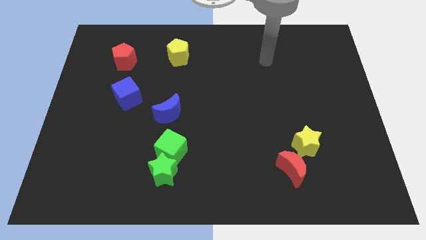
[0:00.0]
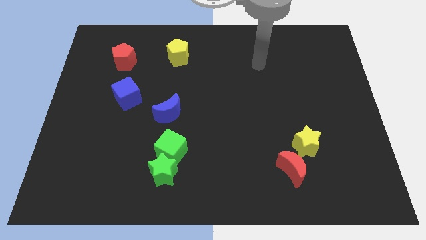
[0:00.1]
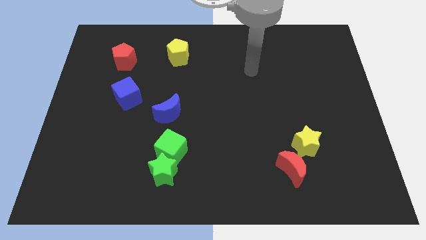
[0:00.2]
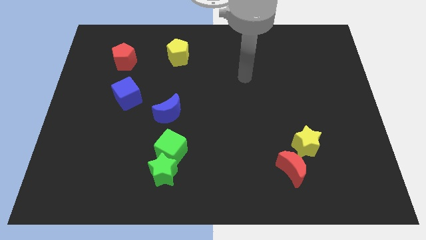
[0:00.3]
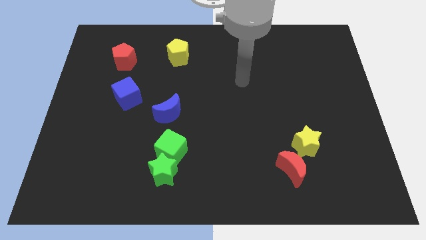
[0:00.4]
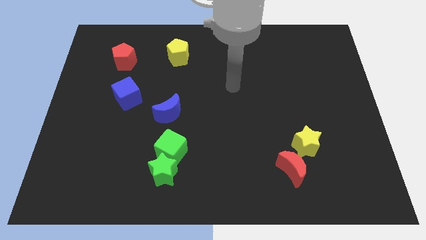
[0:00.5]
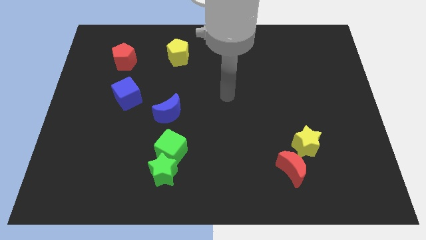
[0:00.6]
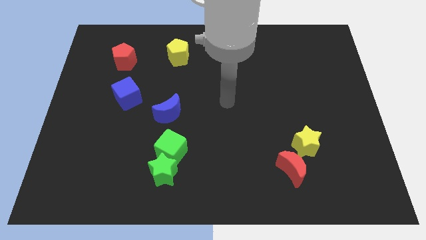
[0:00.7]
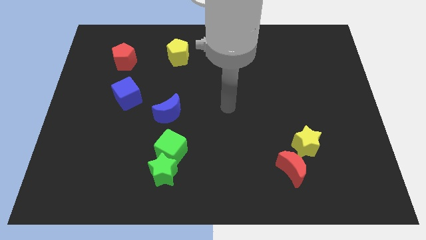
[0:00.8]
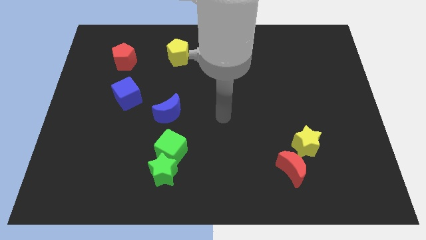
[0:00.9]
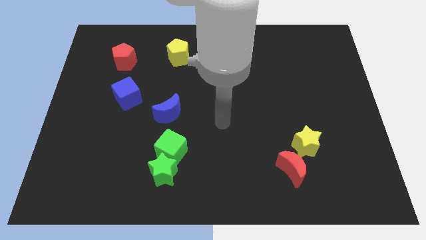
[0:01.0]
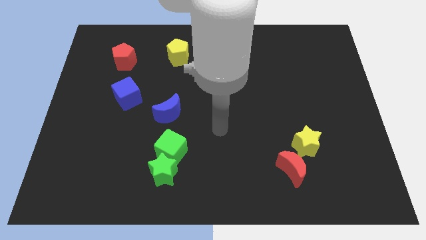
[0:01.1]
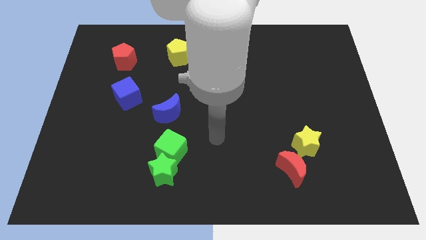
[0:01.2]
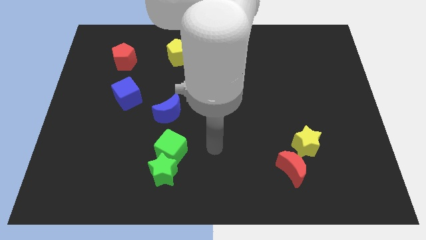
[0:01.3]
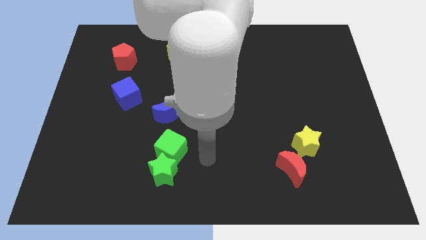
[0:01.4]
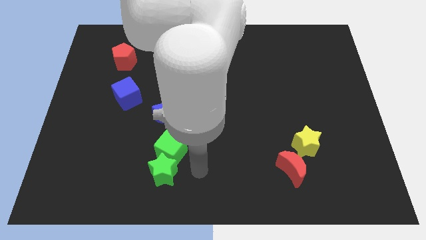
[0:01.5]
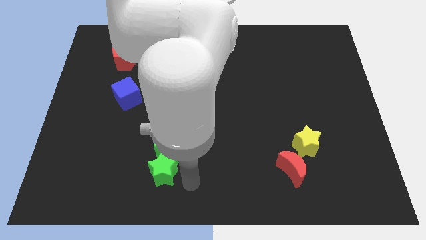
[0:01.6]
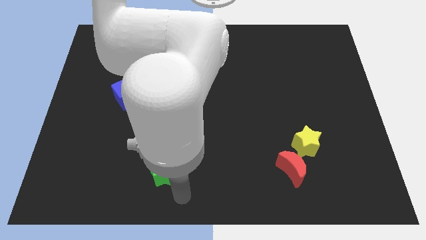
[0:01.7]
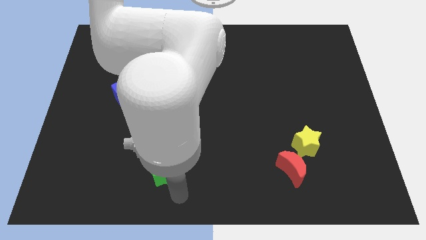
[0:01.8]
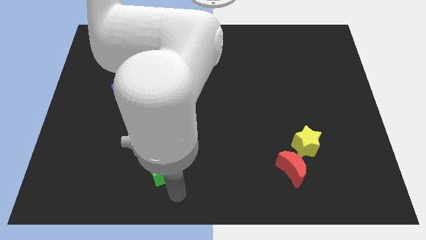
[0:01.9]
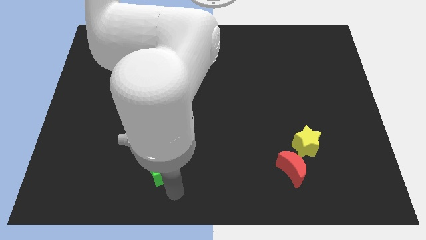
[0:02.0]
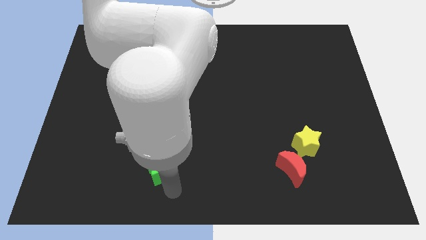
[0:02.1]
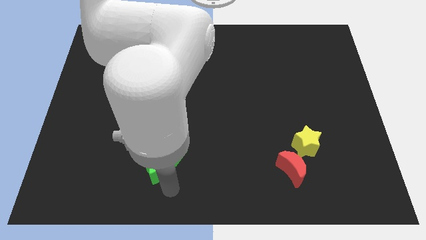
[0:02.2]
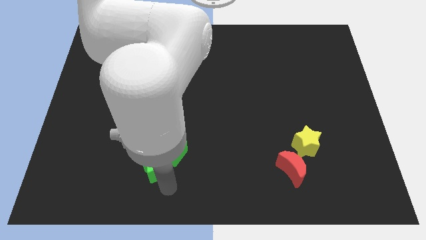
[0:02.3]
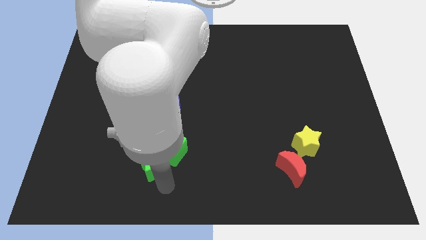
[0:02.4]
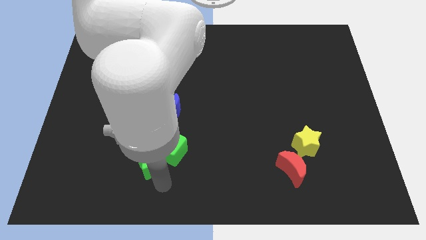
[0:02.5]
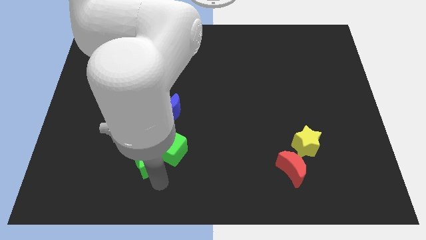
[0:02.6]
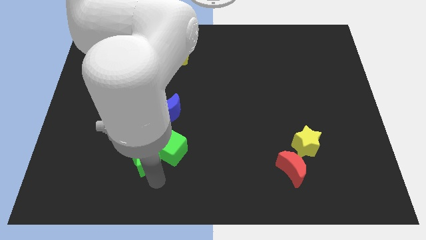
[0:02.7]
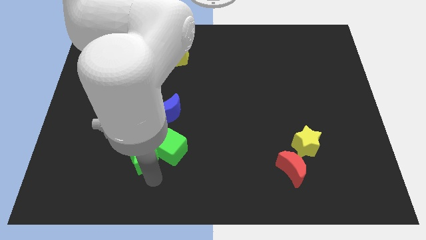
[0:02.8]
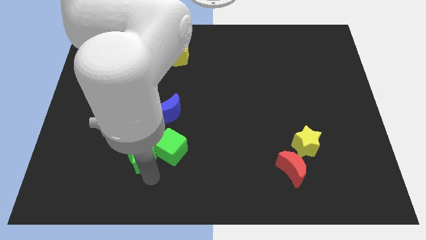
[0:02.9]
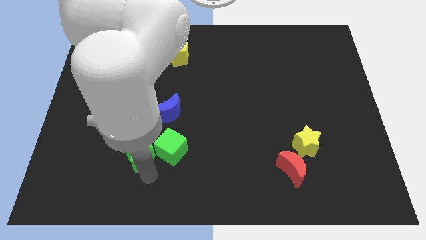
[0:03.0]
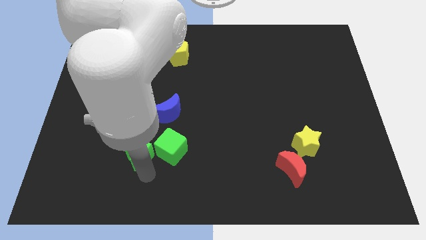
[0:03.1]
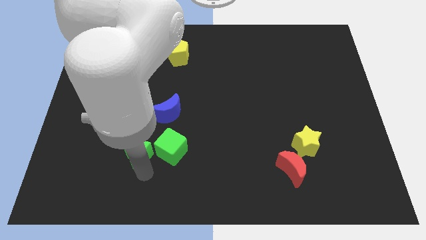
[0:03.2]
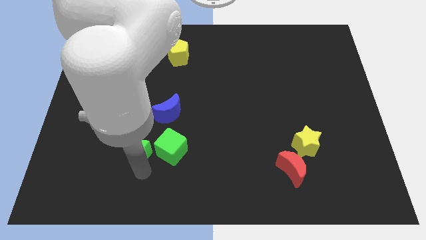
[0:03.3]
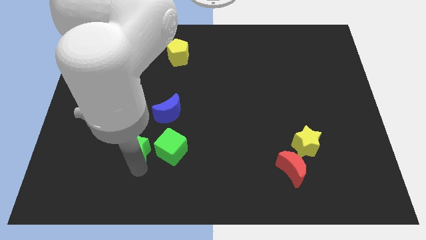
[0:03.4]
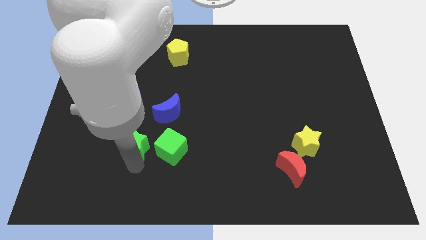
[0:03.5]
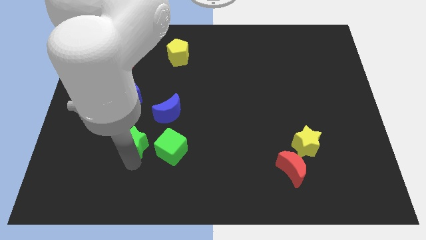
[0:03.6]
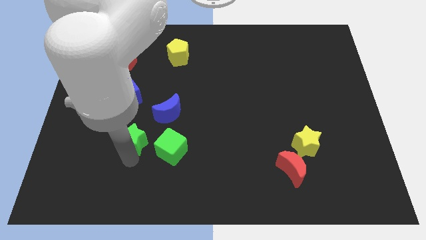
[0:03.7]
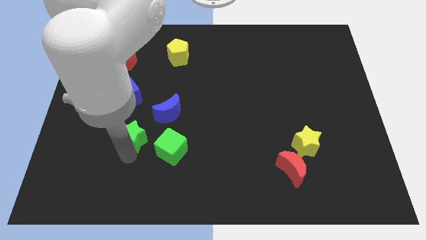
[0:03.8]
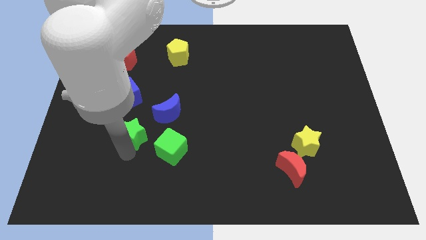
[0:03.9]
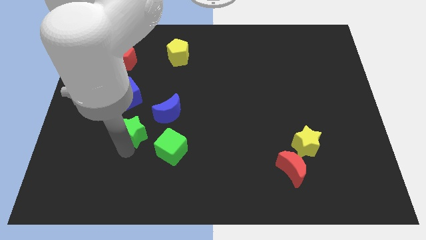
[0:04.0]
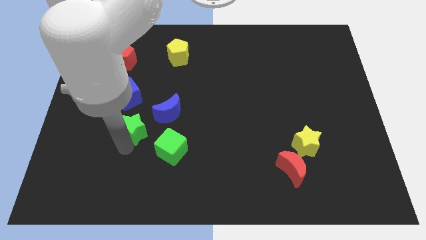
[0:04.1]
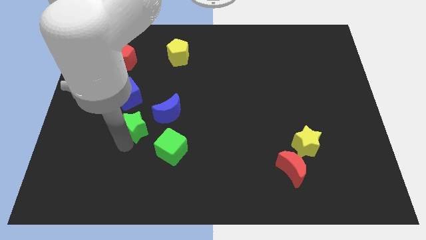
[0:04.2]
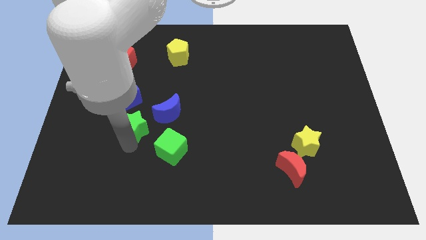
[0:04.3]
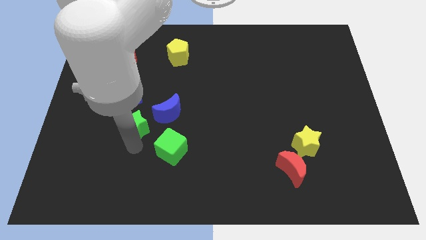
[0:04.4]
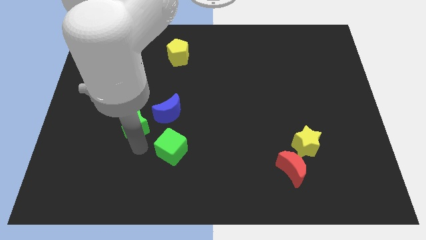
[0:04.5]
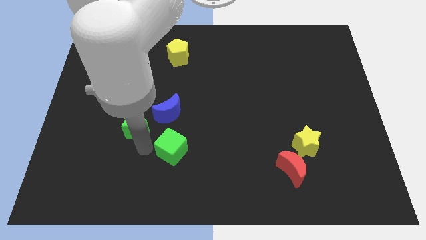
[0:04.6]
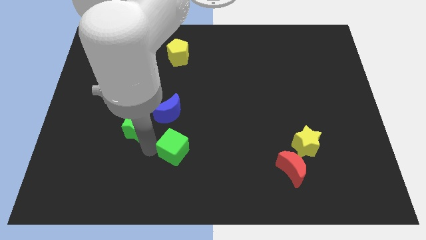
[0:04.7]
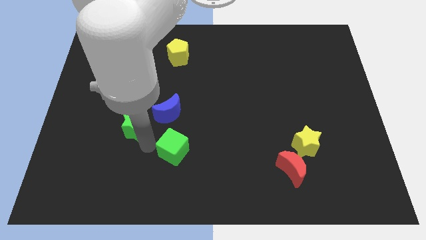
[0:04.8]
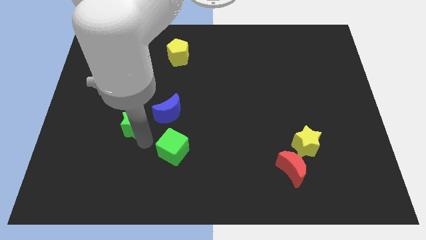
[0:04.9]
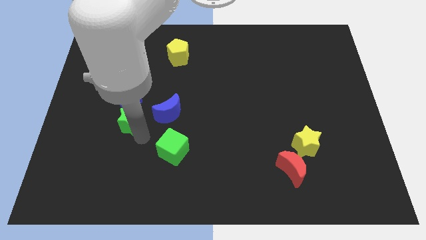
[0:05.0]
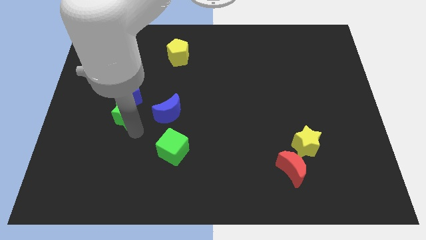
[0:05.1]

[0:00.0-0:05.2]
move the green star towards the blue cube

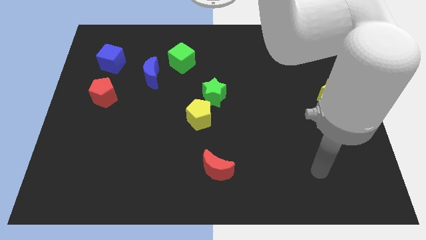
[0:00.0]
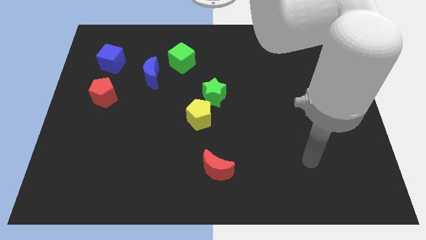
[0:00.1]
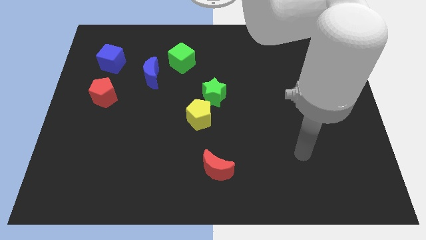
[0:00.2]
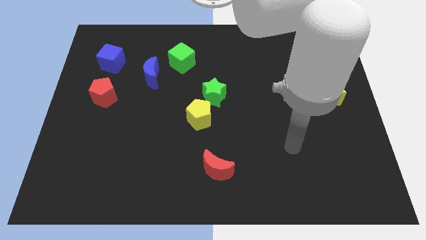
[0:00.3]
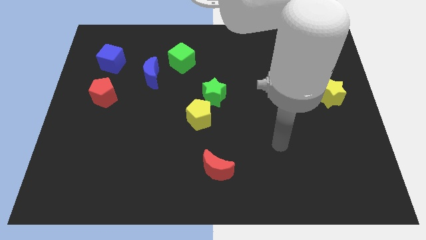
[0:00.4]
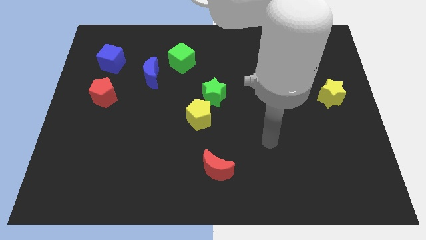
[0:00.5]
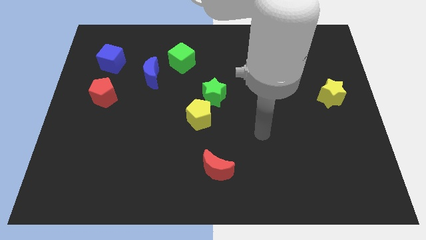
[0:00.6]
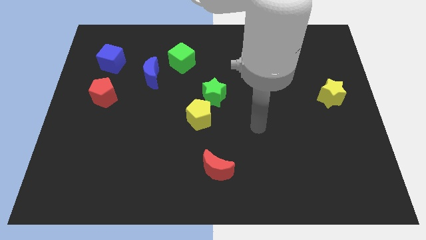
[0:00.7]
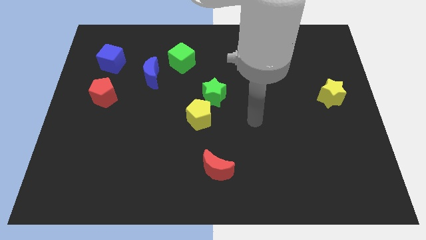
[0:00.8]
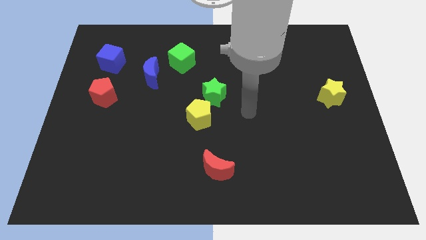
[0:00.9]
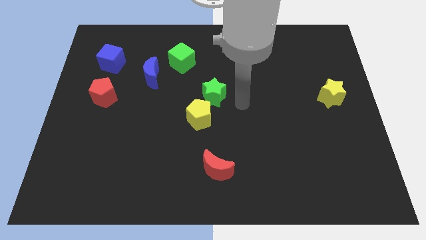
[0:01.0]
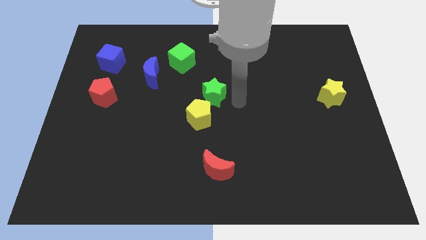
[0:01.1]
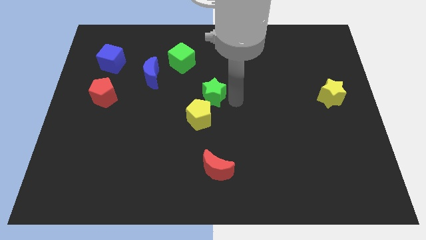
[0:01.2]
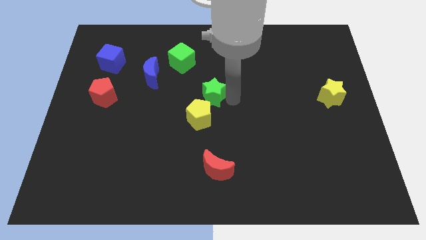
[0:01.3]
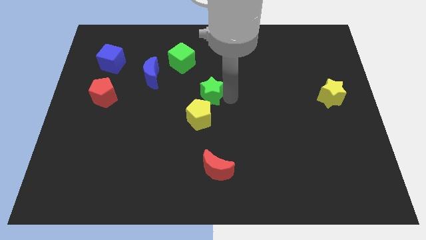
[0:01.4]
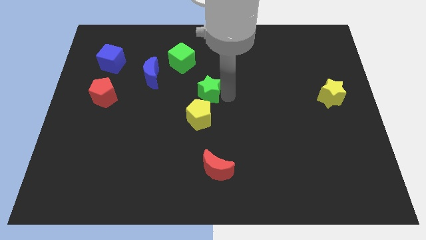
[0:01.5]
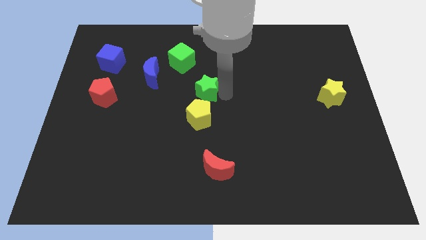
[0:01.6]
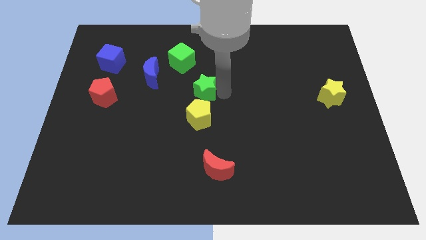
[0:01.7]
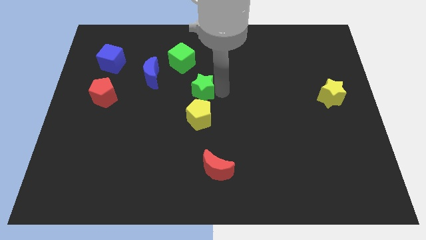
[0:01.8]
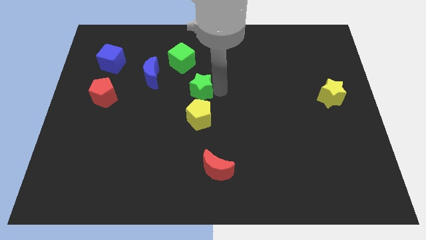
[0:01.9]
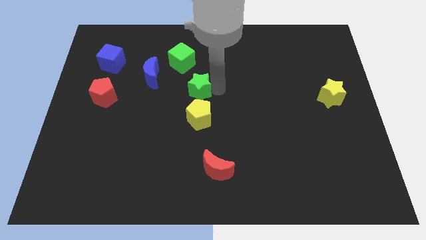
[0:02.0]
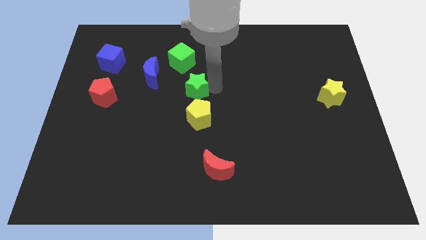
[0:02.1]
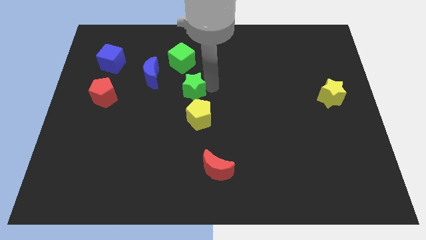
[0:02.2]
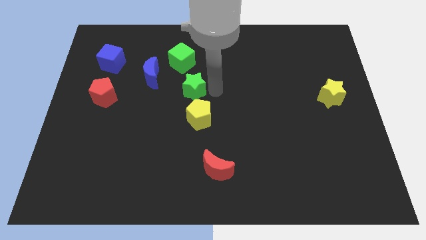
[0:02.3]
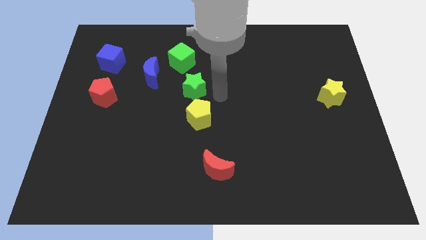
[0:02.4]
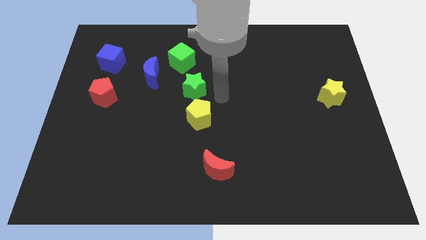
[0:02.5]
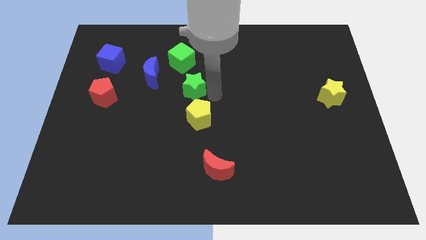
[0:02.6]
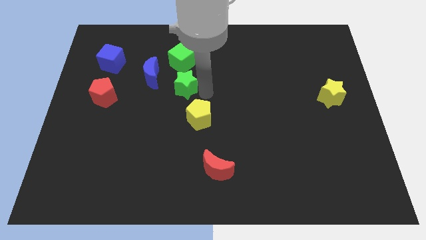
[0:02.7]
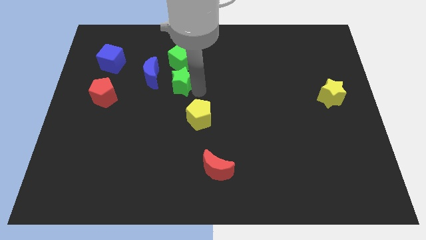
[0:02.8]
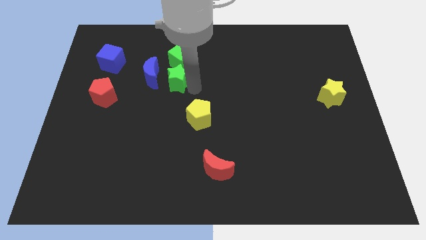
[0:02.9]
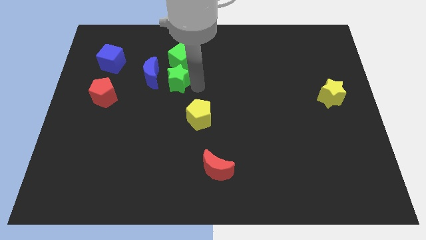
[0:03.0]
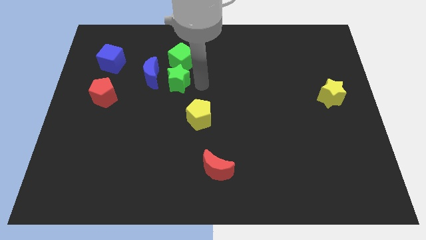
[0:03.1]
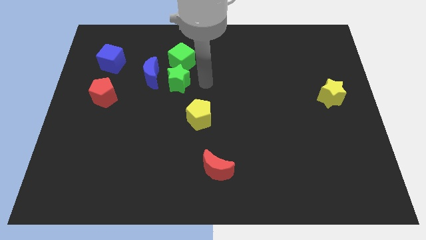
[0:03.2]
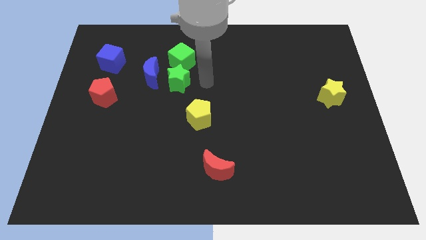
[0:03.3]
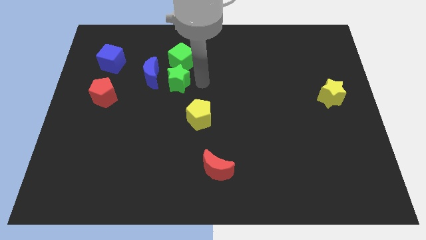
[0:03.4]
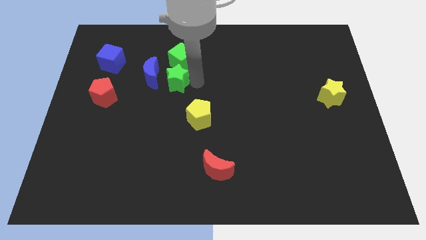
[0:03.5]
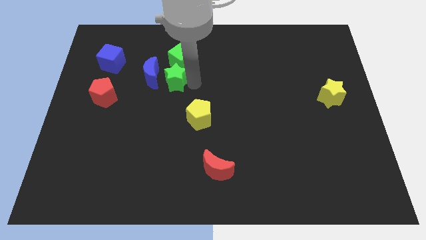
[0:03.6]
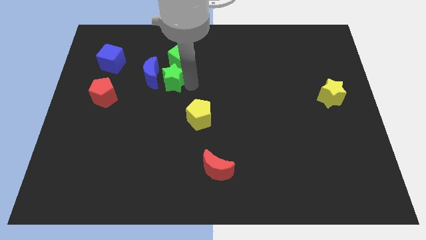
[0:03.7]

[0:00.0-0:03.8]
put the green star towards the blue moon
